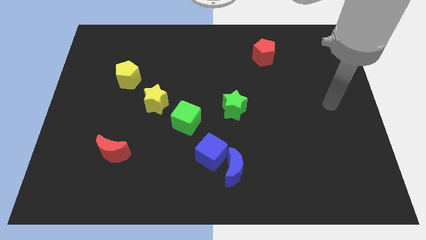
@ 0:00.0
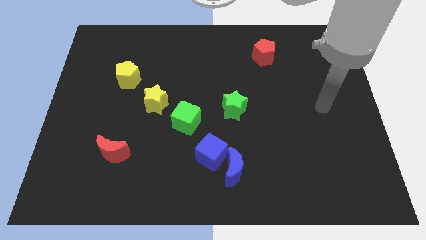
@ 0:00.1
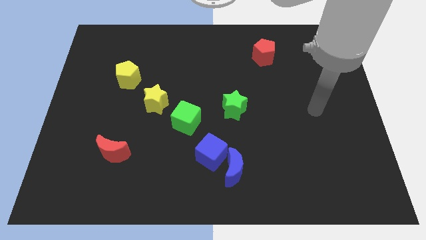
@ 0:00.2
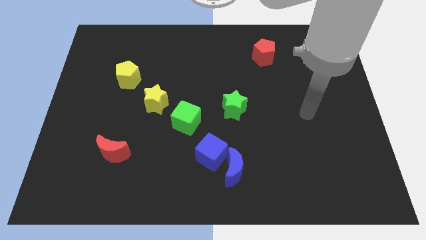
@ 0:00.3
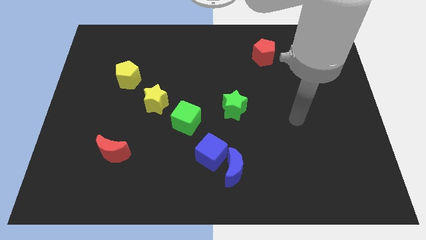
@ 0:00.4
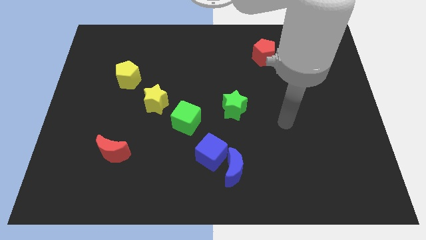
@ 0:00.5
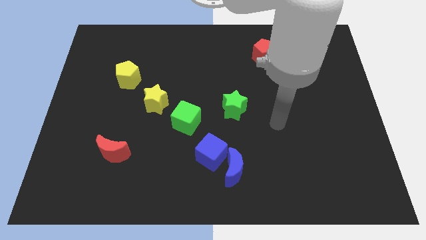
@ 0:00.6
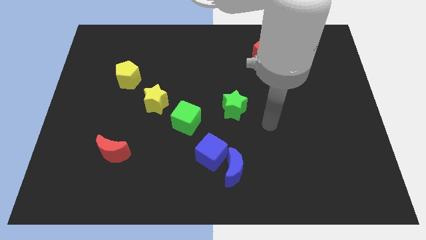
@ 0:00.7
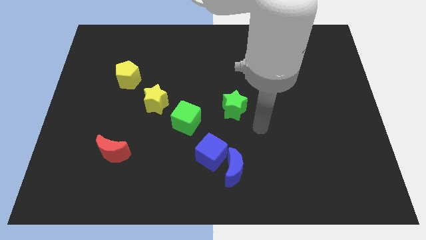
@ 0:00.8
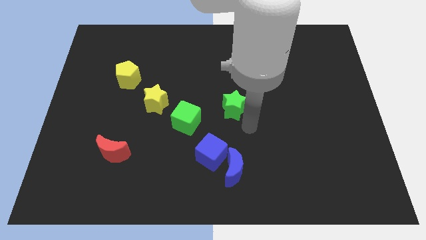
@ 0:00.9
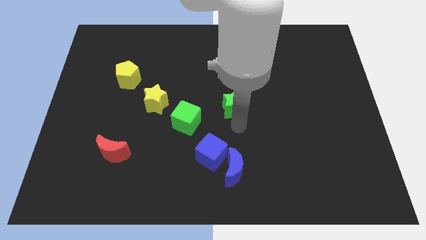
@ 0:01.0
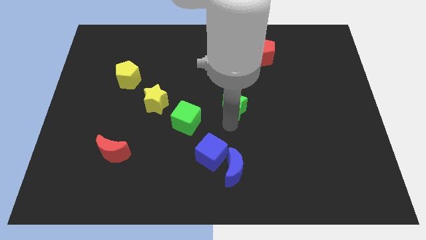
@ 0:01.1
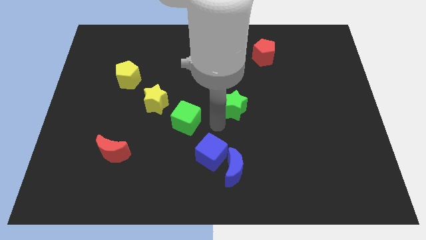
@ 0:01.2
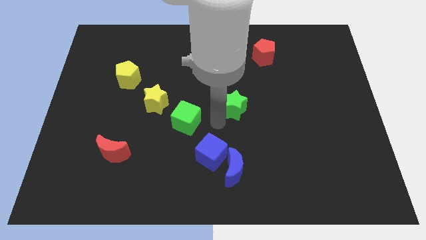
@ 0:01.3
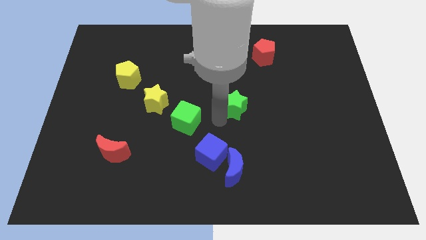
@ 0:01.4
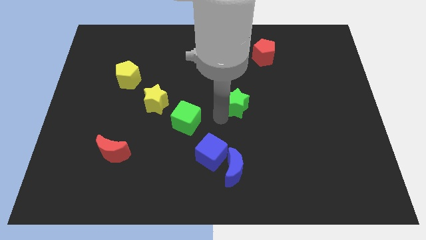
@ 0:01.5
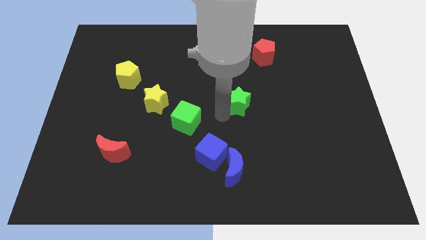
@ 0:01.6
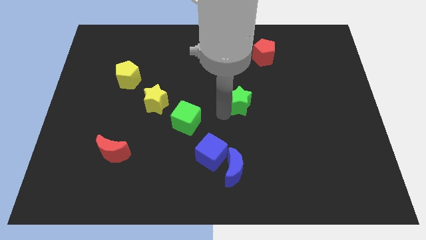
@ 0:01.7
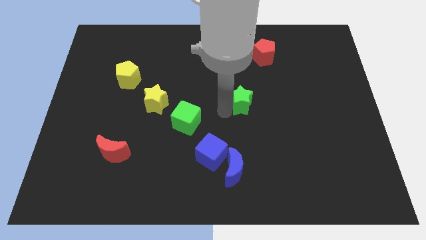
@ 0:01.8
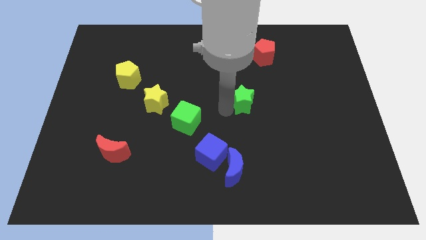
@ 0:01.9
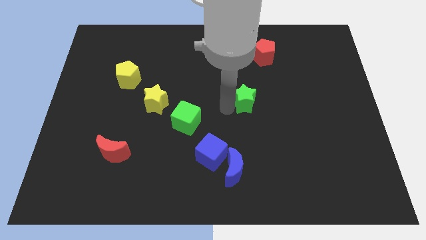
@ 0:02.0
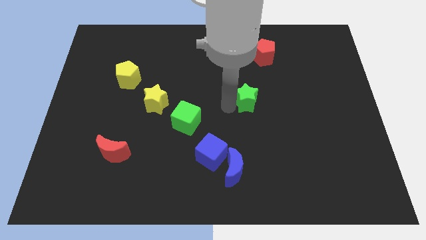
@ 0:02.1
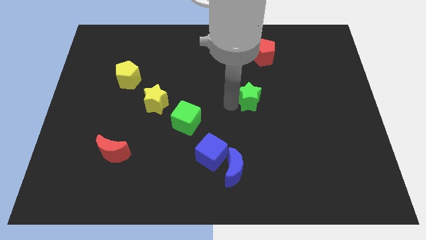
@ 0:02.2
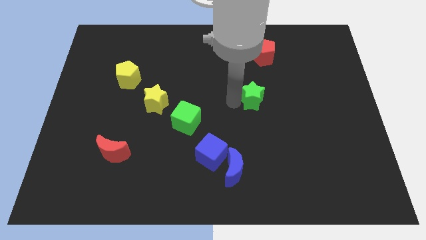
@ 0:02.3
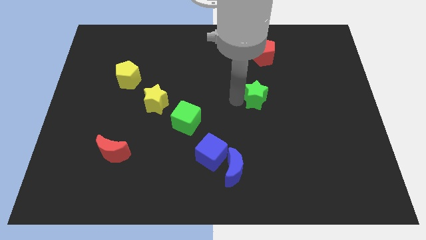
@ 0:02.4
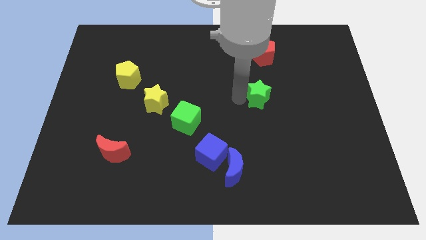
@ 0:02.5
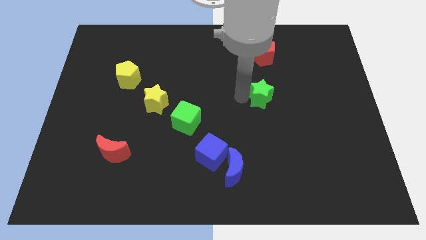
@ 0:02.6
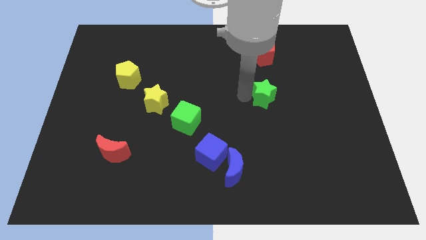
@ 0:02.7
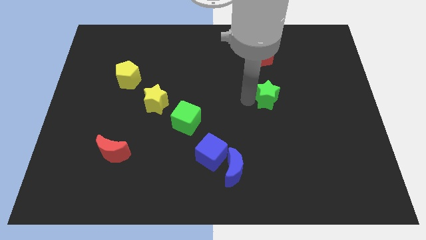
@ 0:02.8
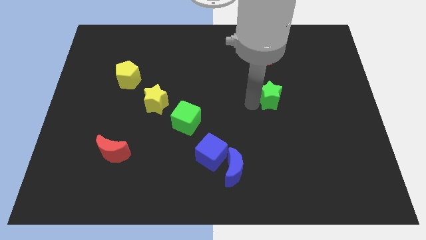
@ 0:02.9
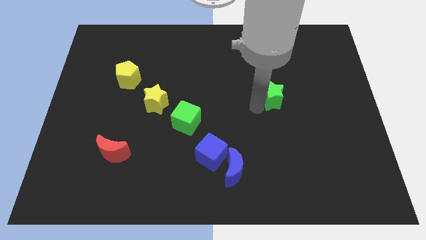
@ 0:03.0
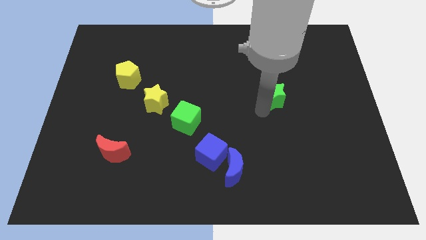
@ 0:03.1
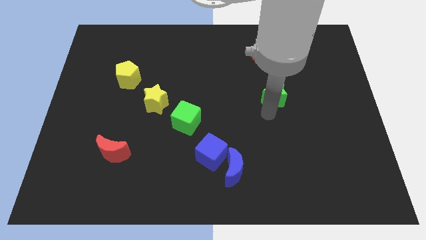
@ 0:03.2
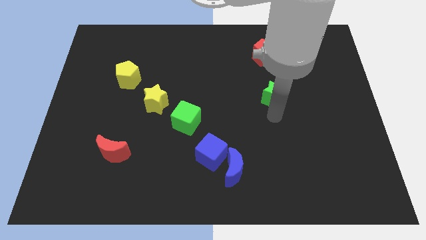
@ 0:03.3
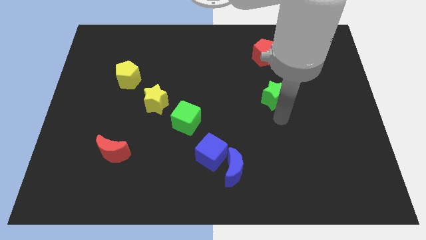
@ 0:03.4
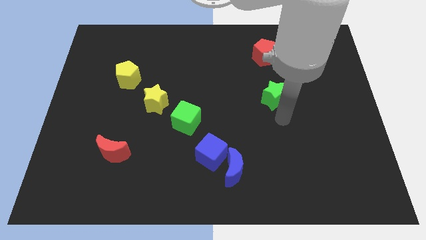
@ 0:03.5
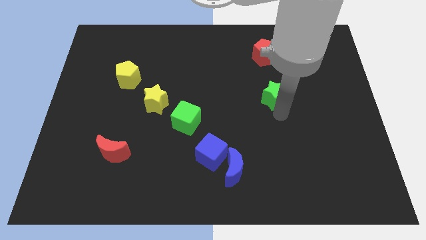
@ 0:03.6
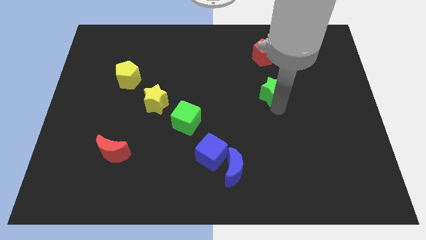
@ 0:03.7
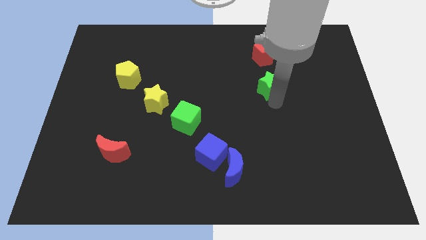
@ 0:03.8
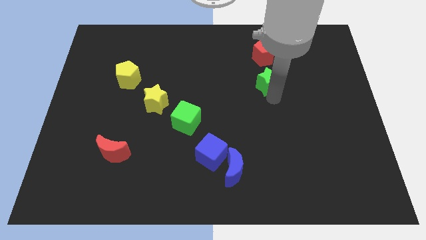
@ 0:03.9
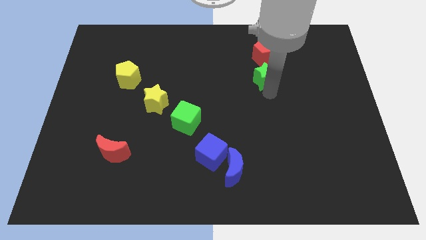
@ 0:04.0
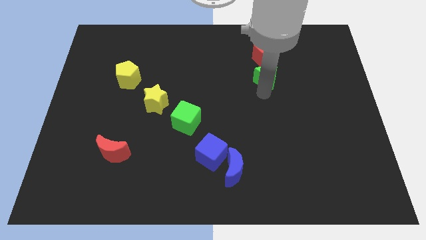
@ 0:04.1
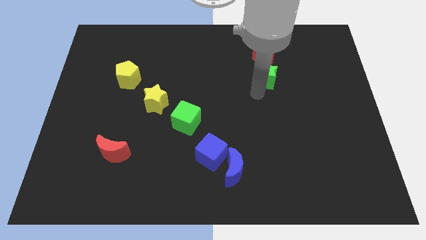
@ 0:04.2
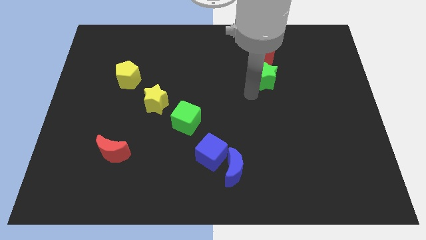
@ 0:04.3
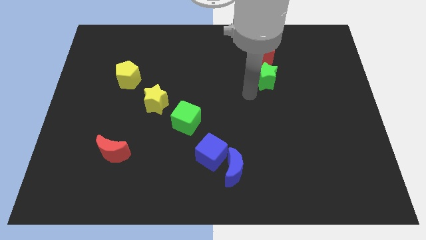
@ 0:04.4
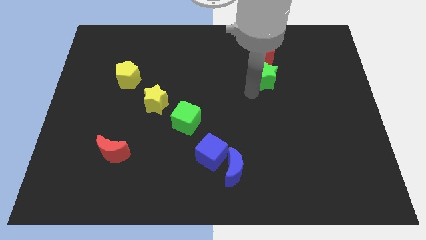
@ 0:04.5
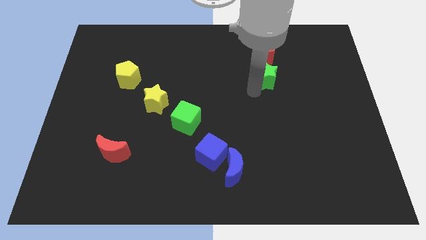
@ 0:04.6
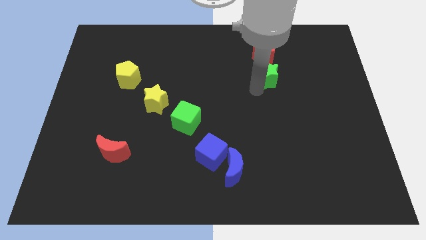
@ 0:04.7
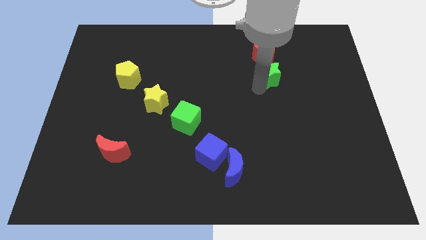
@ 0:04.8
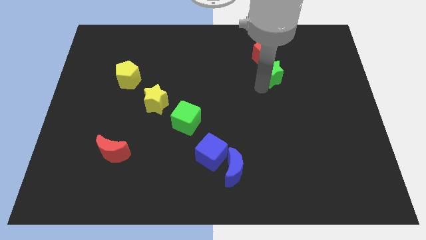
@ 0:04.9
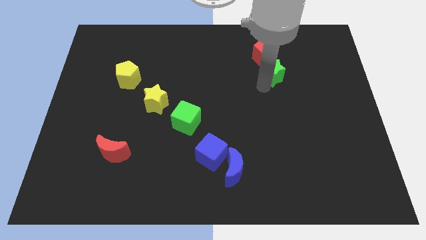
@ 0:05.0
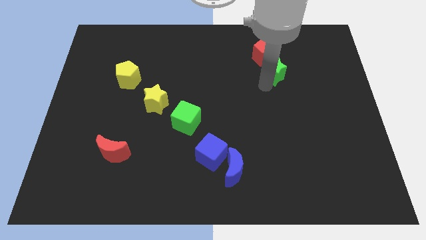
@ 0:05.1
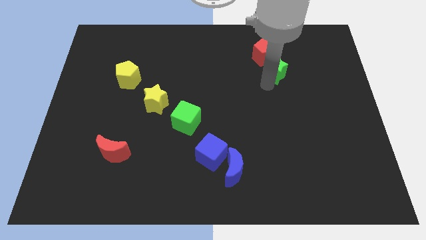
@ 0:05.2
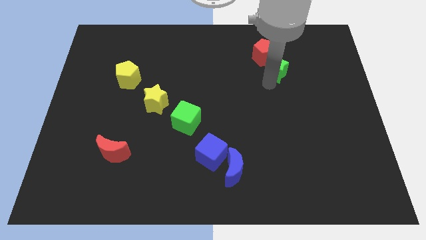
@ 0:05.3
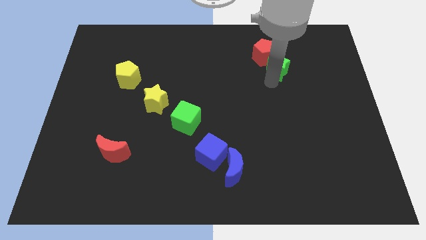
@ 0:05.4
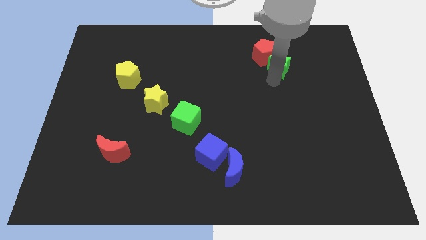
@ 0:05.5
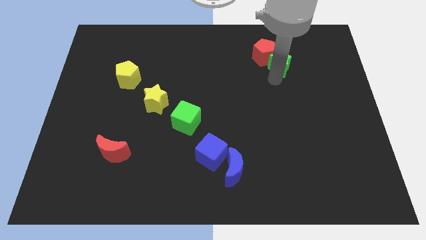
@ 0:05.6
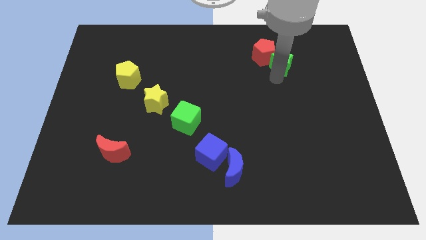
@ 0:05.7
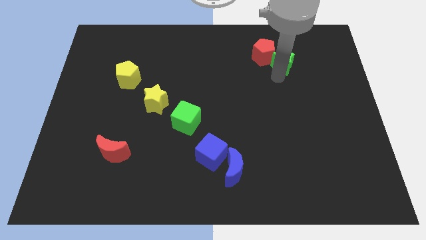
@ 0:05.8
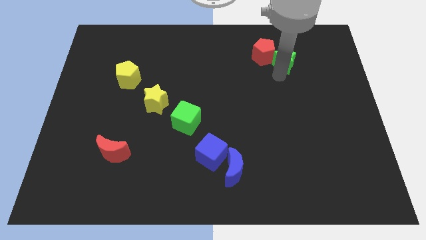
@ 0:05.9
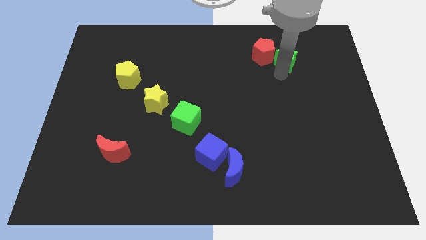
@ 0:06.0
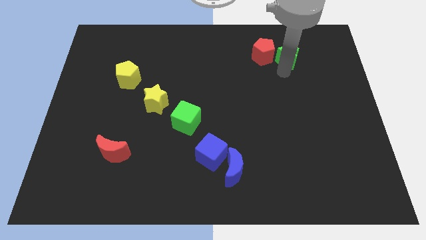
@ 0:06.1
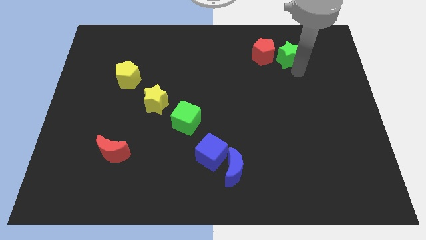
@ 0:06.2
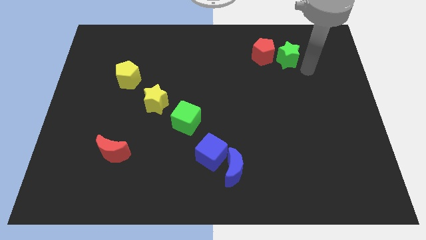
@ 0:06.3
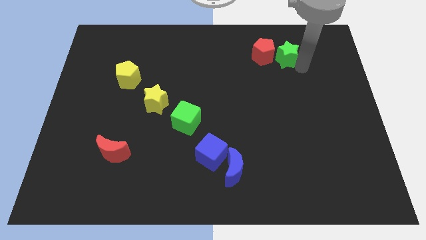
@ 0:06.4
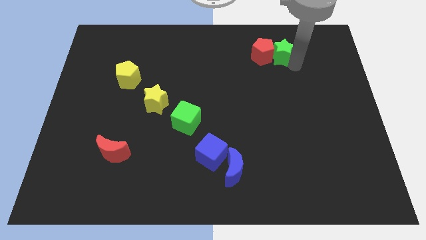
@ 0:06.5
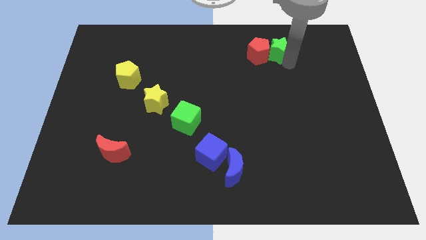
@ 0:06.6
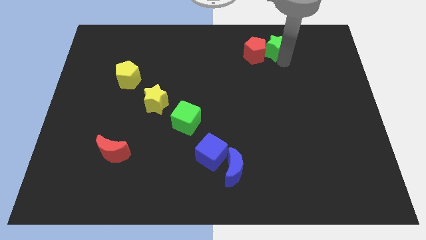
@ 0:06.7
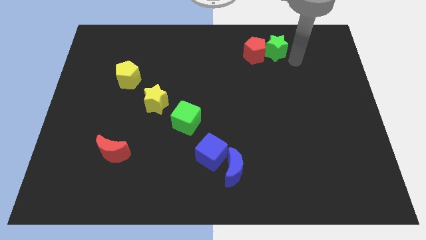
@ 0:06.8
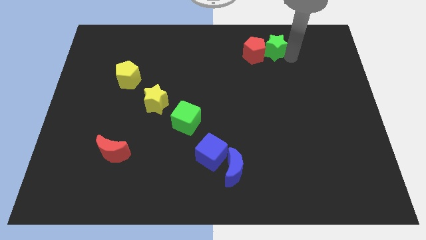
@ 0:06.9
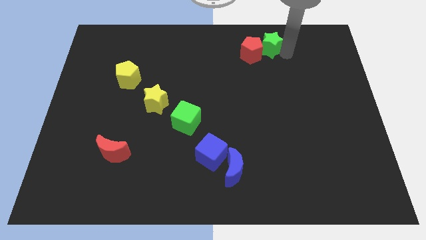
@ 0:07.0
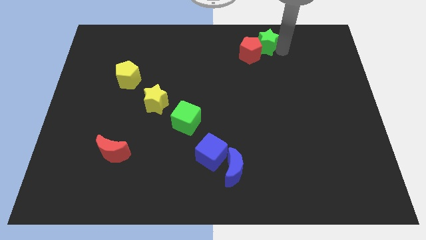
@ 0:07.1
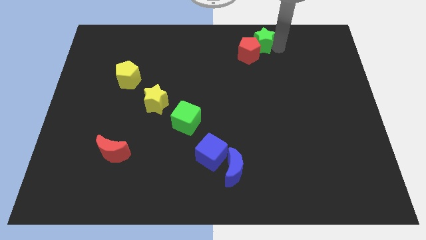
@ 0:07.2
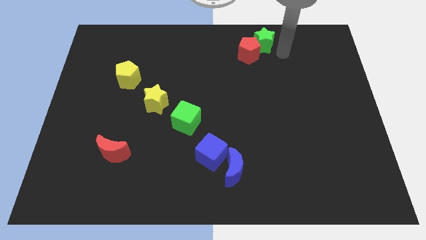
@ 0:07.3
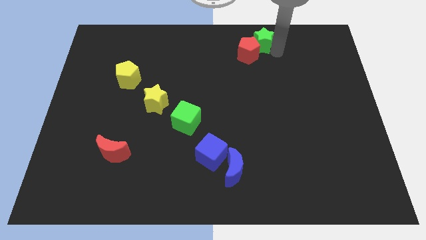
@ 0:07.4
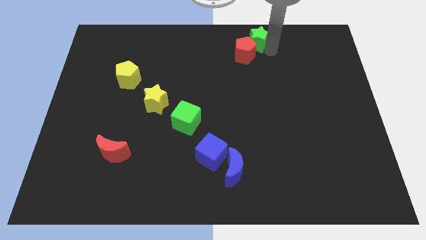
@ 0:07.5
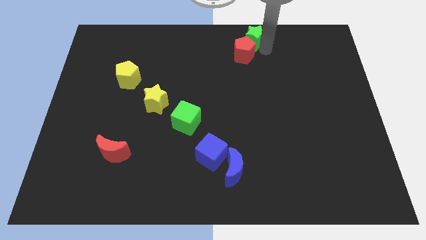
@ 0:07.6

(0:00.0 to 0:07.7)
push the green star to the top
